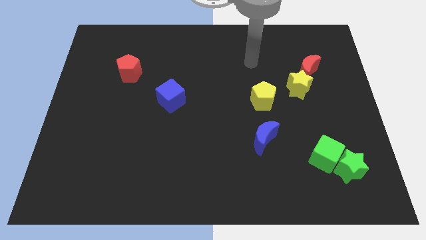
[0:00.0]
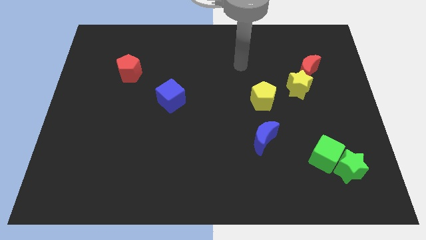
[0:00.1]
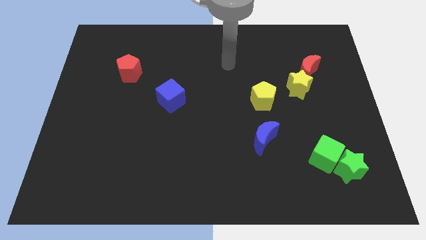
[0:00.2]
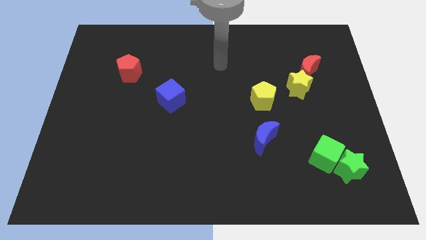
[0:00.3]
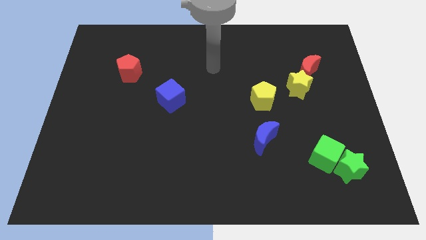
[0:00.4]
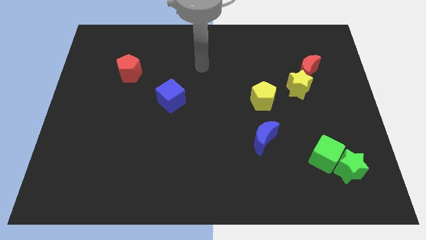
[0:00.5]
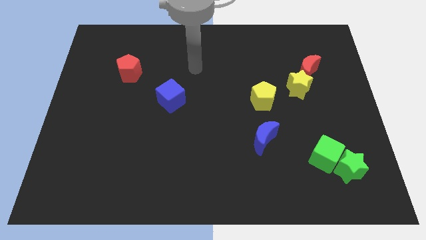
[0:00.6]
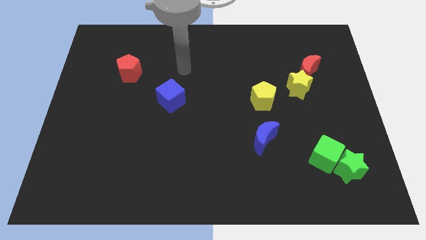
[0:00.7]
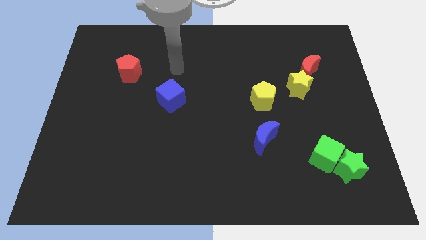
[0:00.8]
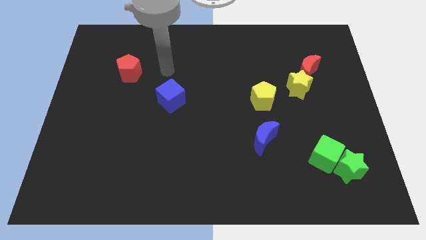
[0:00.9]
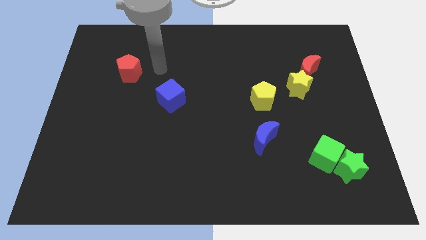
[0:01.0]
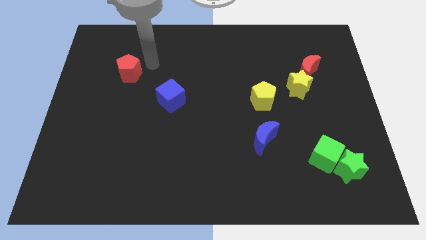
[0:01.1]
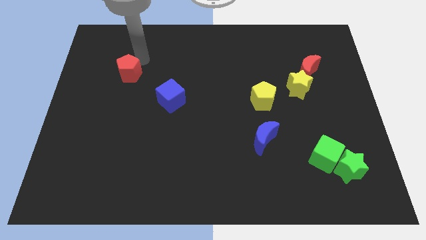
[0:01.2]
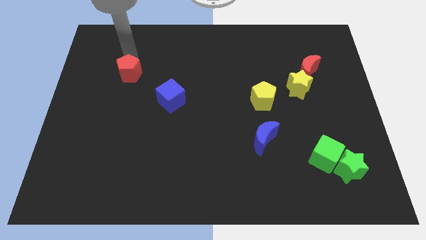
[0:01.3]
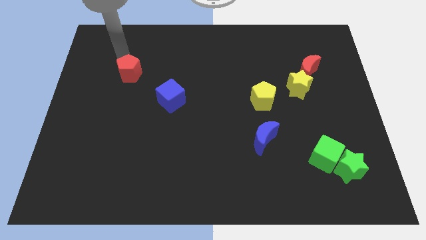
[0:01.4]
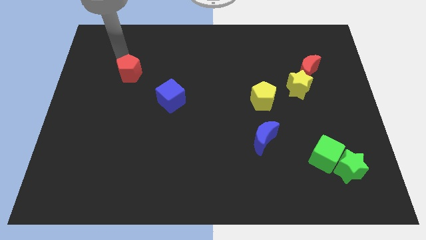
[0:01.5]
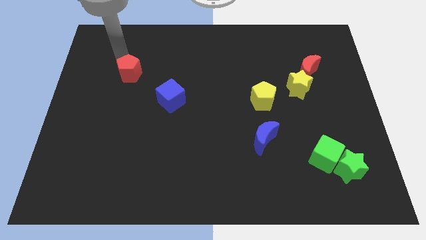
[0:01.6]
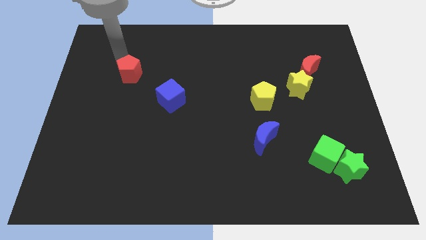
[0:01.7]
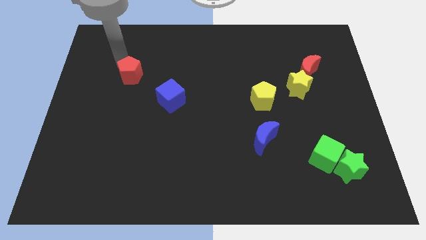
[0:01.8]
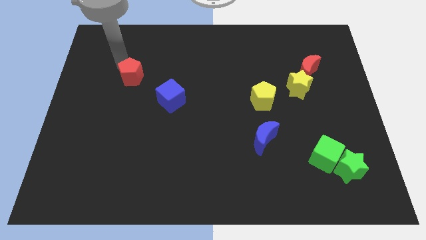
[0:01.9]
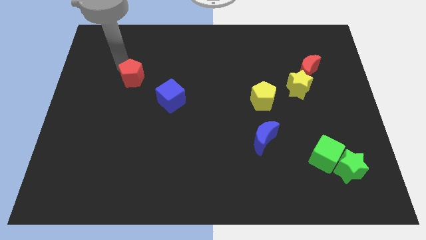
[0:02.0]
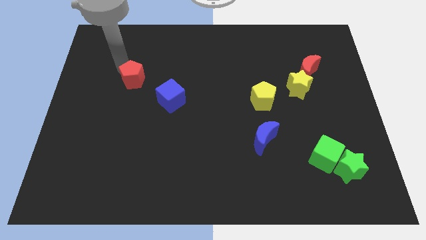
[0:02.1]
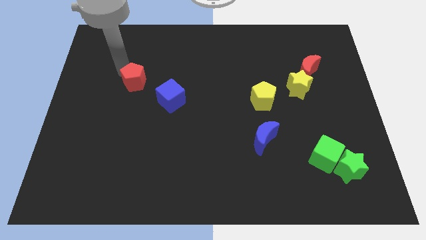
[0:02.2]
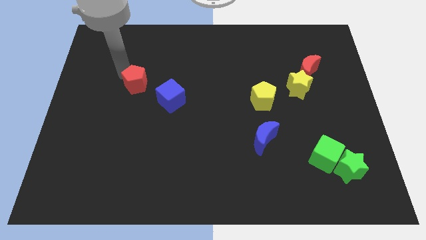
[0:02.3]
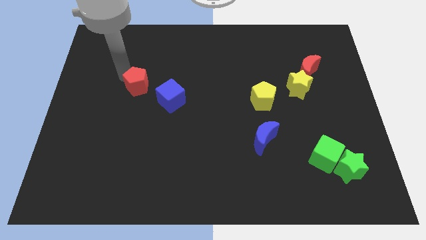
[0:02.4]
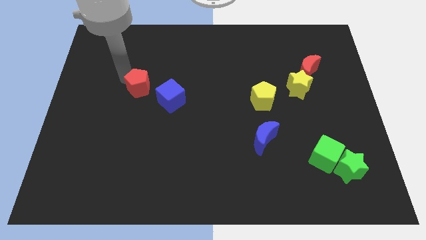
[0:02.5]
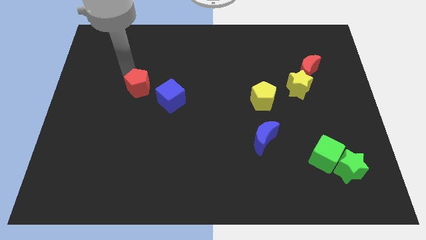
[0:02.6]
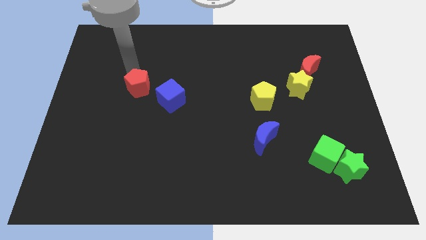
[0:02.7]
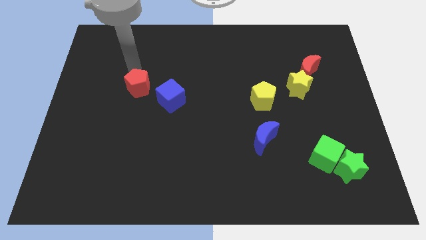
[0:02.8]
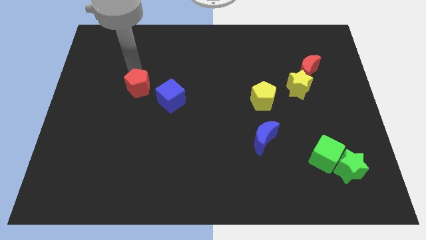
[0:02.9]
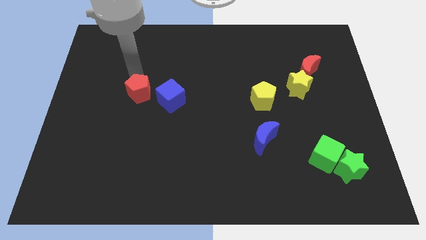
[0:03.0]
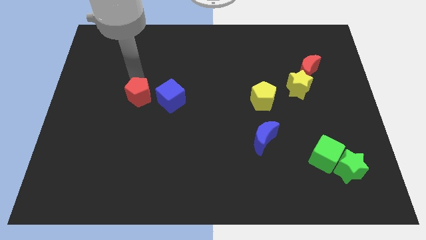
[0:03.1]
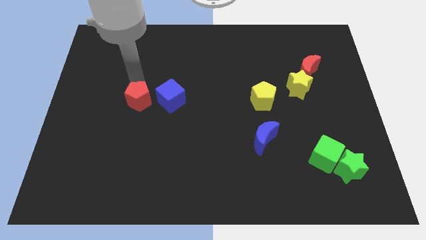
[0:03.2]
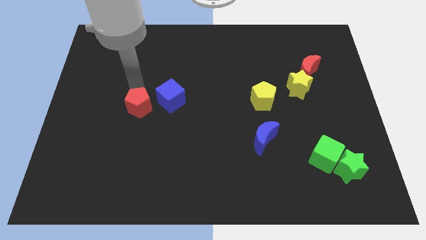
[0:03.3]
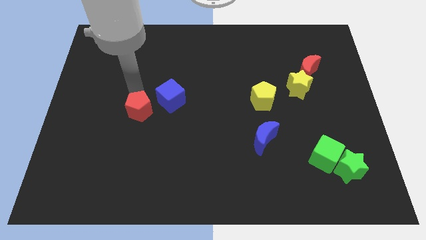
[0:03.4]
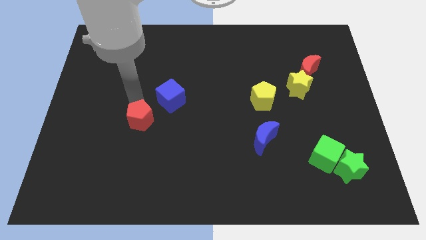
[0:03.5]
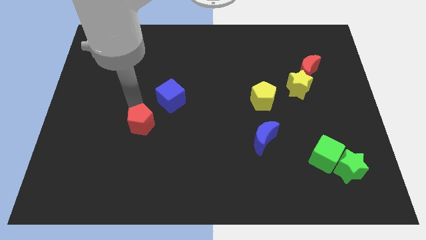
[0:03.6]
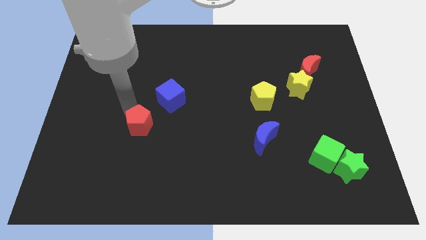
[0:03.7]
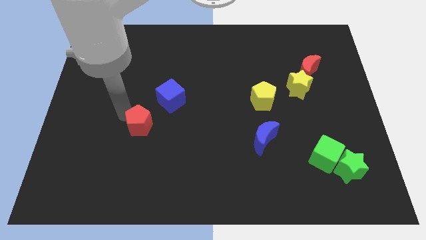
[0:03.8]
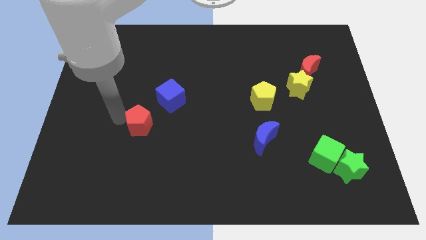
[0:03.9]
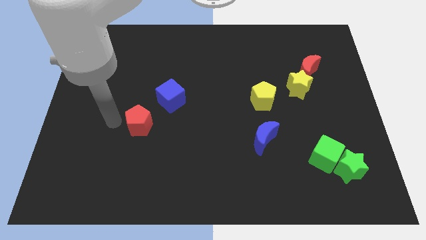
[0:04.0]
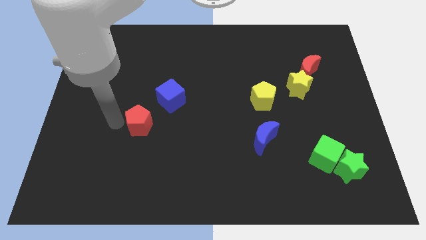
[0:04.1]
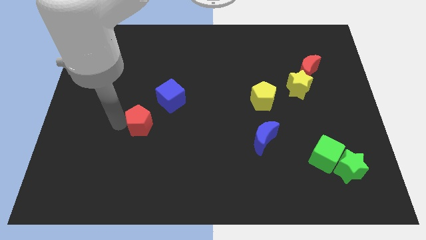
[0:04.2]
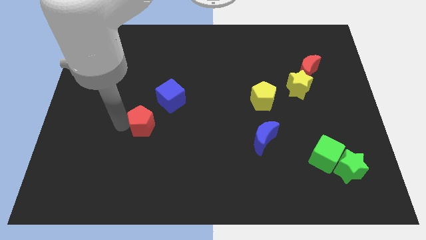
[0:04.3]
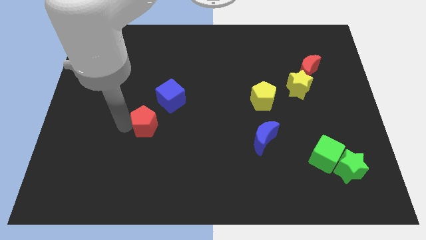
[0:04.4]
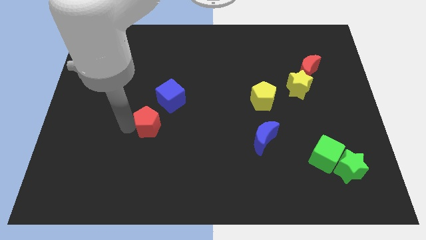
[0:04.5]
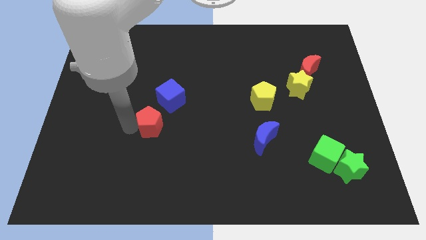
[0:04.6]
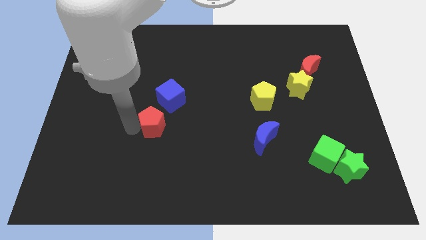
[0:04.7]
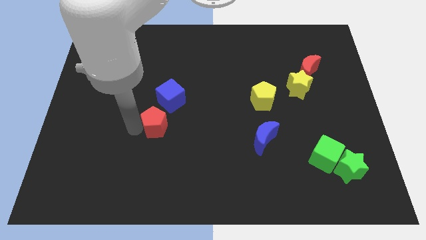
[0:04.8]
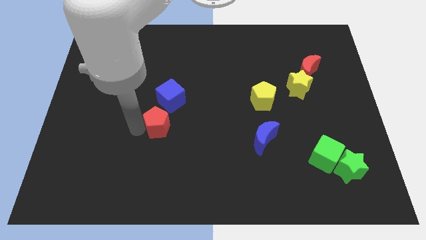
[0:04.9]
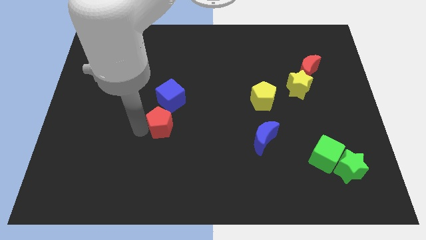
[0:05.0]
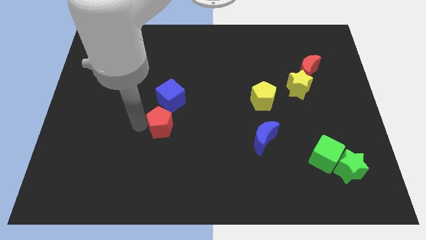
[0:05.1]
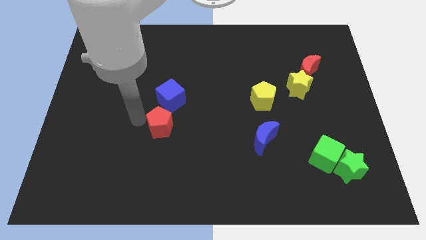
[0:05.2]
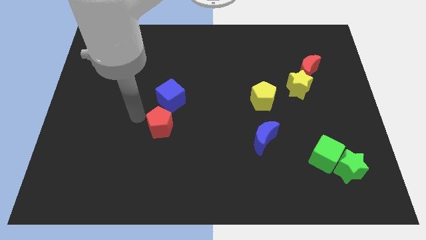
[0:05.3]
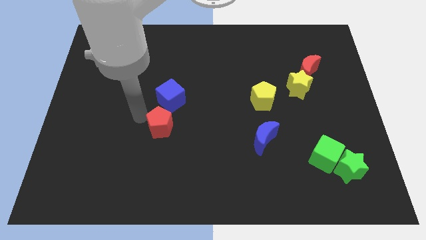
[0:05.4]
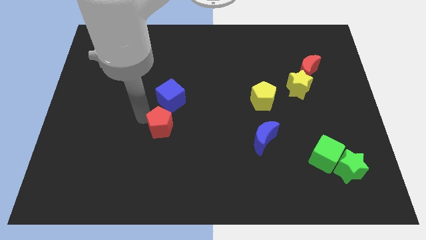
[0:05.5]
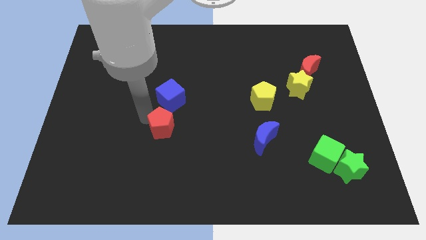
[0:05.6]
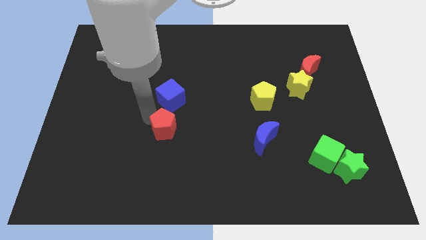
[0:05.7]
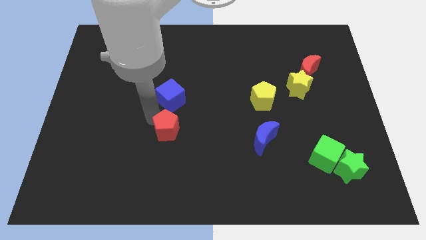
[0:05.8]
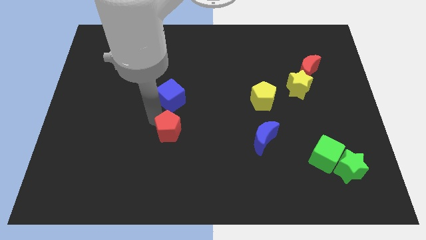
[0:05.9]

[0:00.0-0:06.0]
slide the red pentagon down and to the right

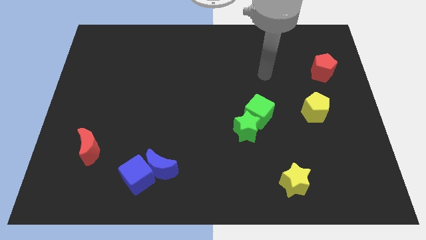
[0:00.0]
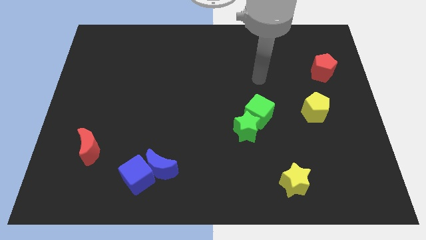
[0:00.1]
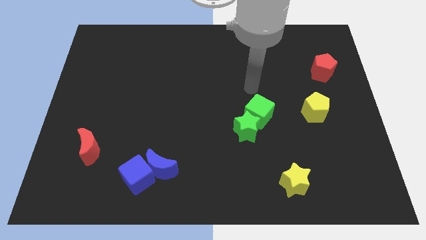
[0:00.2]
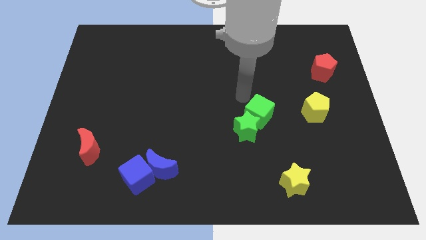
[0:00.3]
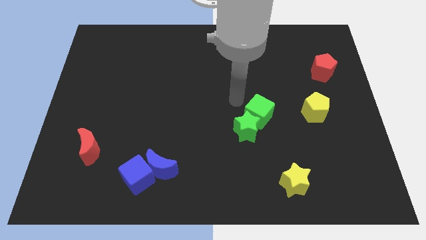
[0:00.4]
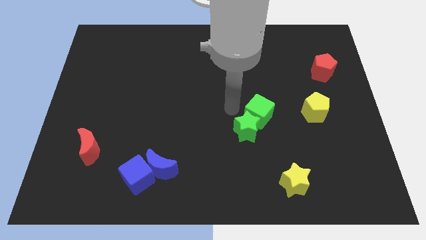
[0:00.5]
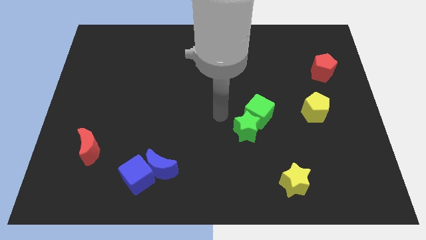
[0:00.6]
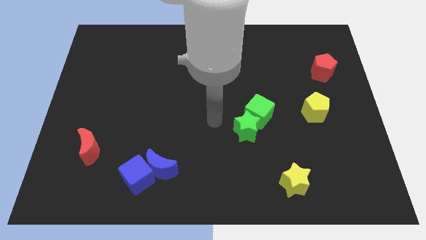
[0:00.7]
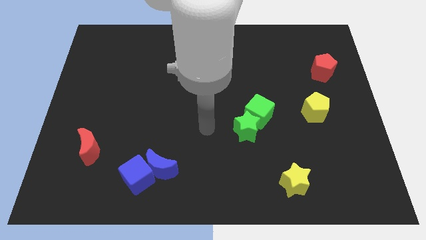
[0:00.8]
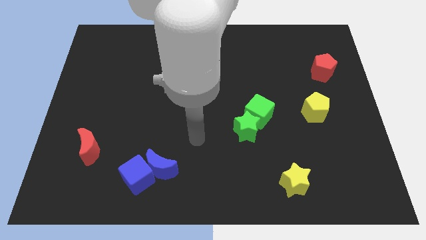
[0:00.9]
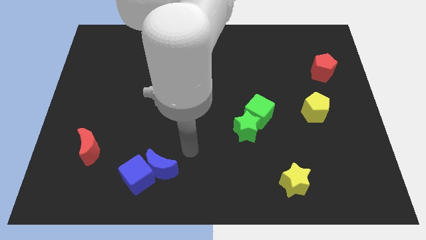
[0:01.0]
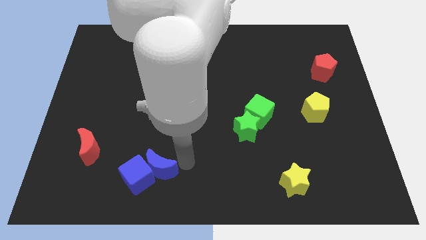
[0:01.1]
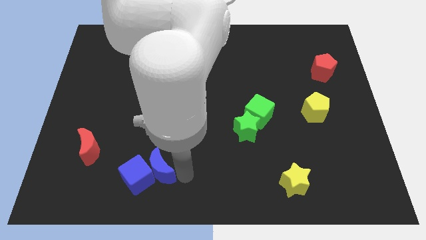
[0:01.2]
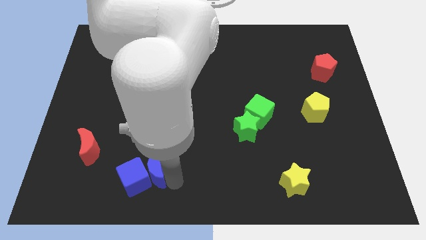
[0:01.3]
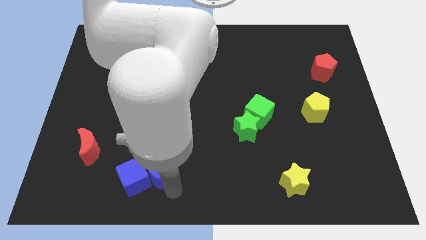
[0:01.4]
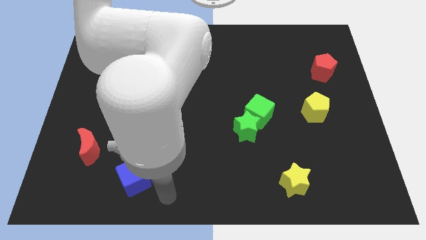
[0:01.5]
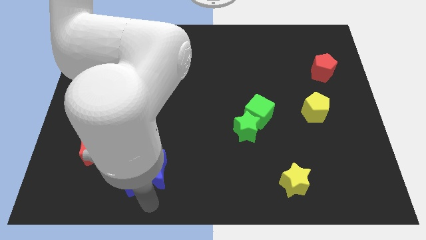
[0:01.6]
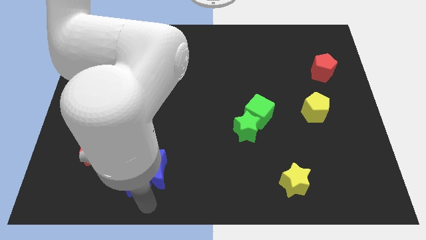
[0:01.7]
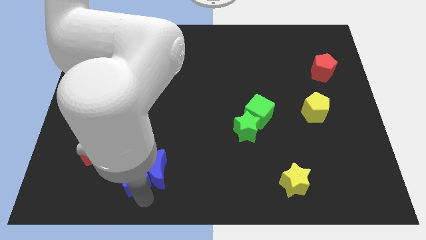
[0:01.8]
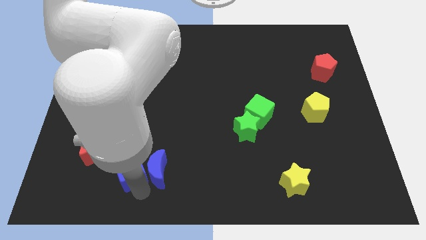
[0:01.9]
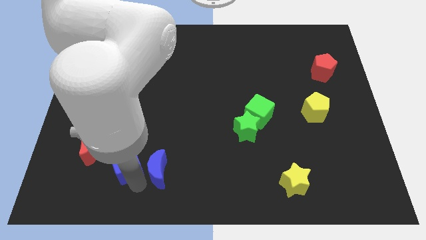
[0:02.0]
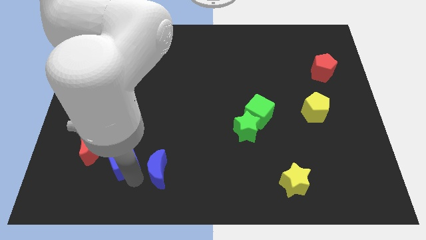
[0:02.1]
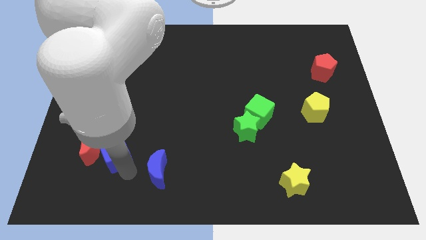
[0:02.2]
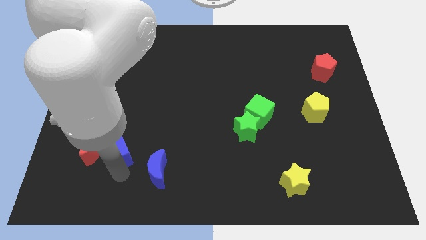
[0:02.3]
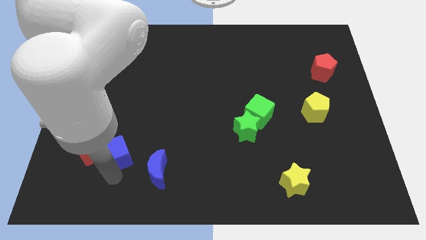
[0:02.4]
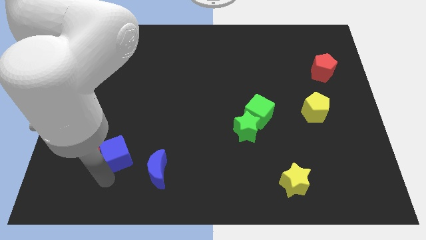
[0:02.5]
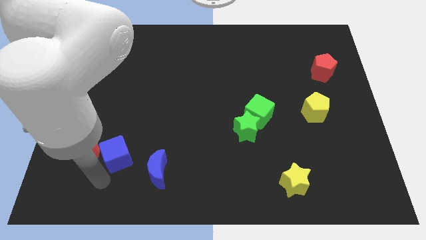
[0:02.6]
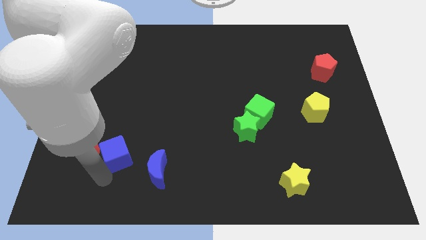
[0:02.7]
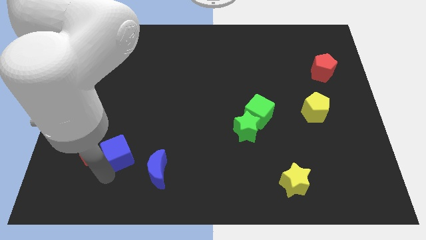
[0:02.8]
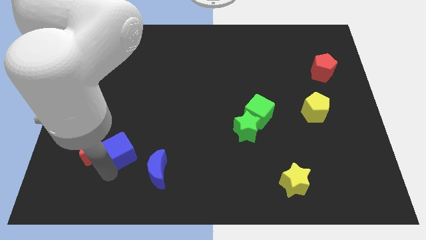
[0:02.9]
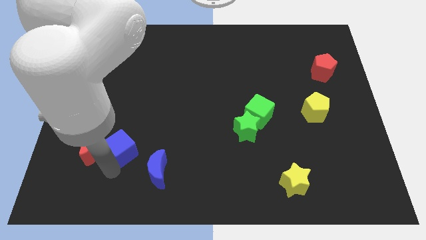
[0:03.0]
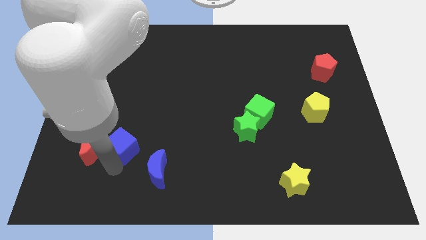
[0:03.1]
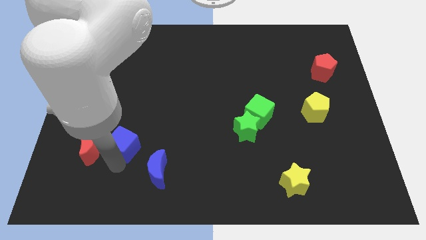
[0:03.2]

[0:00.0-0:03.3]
slide the blue cube up a little bit
